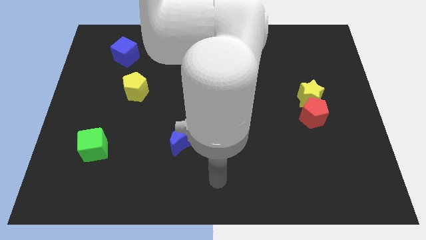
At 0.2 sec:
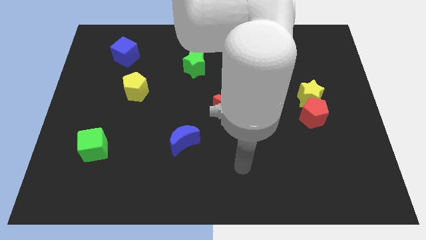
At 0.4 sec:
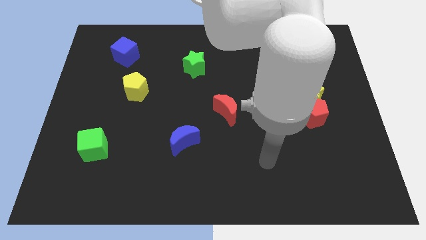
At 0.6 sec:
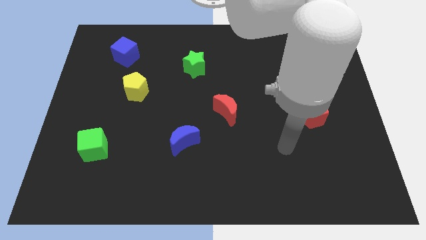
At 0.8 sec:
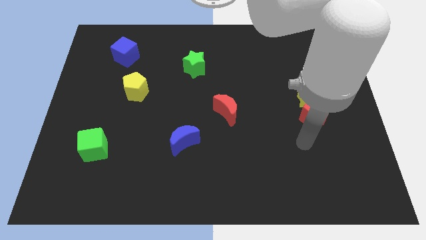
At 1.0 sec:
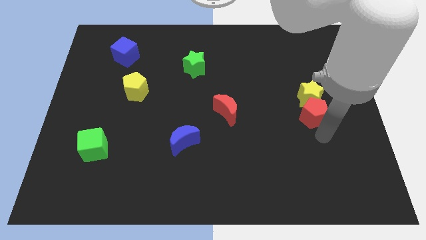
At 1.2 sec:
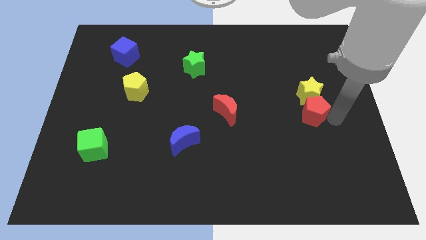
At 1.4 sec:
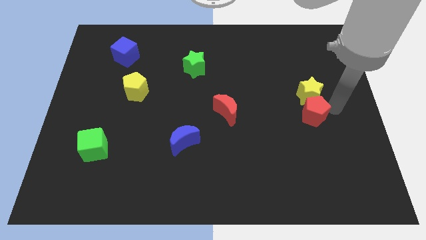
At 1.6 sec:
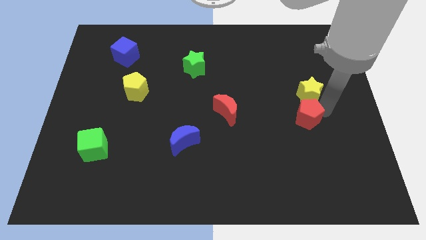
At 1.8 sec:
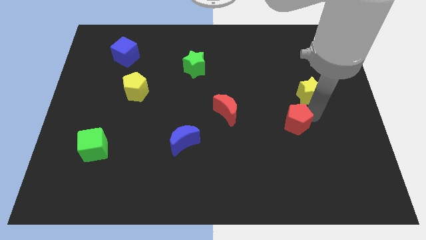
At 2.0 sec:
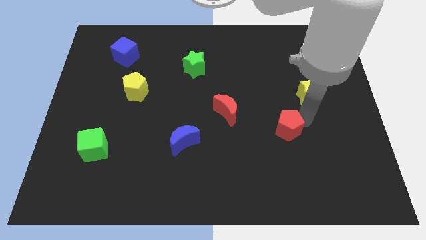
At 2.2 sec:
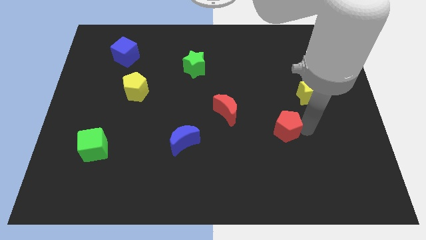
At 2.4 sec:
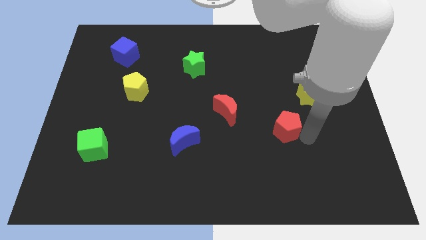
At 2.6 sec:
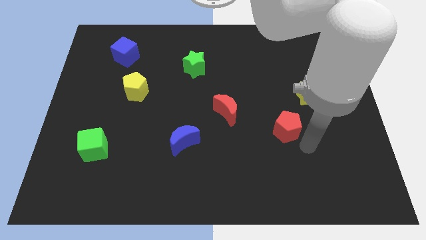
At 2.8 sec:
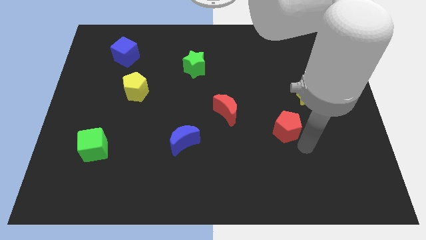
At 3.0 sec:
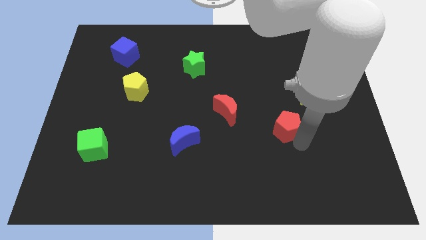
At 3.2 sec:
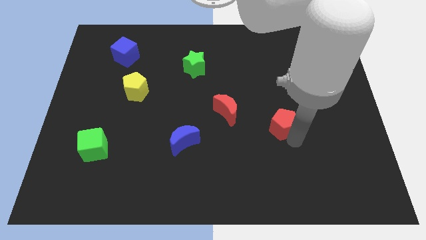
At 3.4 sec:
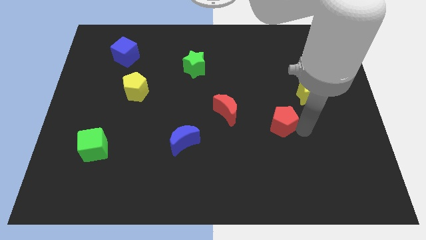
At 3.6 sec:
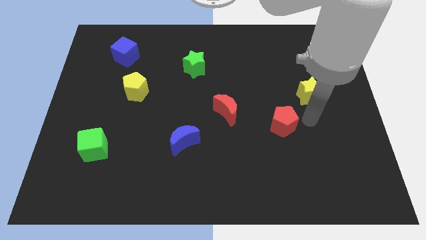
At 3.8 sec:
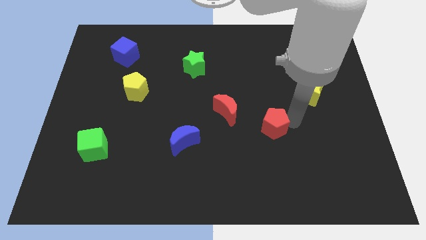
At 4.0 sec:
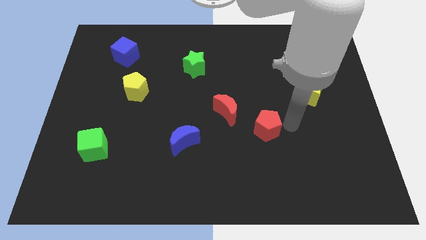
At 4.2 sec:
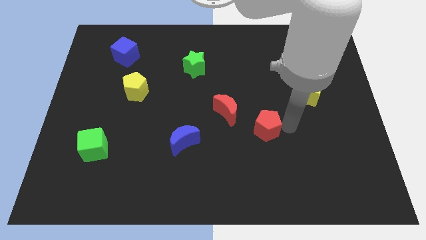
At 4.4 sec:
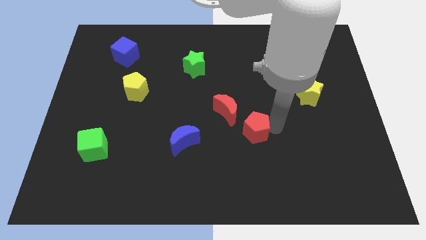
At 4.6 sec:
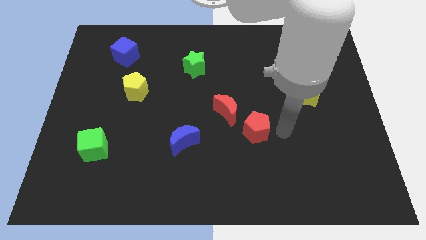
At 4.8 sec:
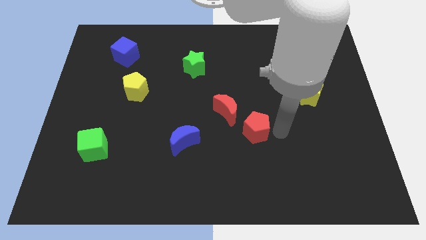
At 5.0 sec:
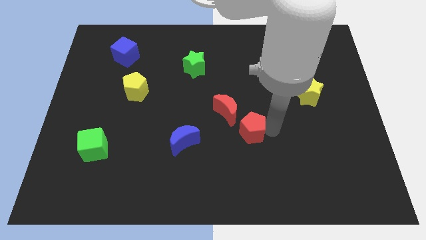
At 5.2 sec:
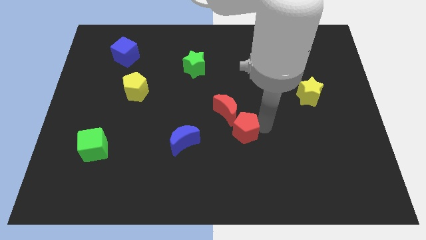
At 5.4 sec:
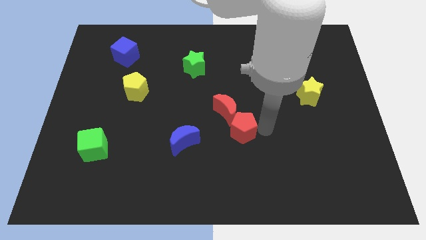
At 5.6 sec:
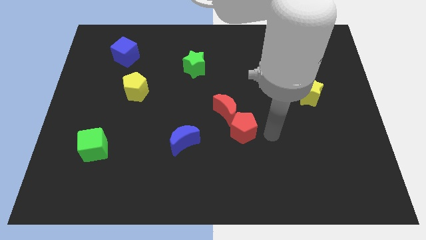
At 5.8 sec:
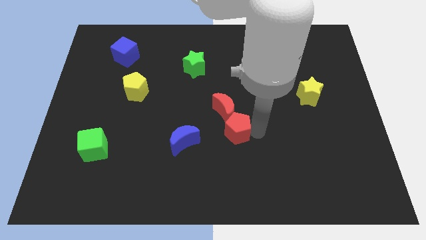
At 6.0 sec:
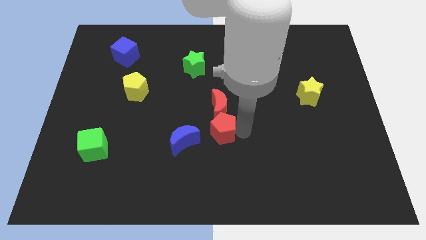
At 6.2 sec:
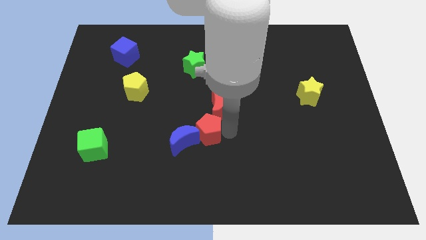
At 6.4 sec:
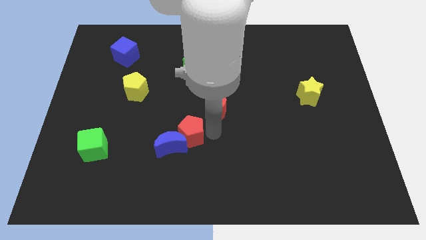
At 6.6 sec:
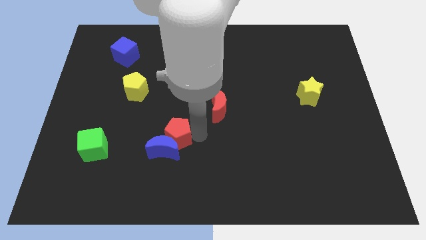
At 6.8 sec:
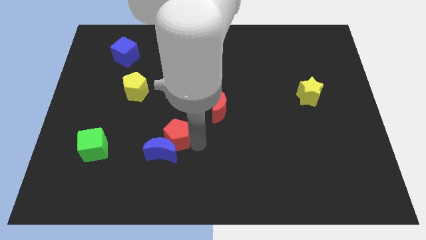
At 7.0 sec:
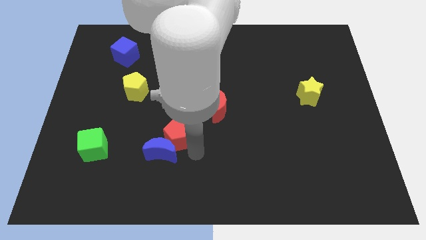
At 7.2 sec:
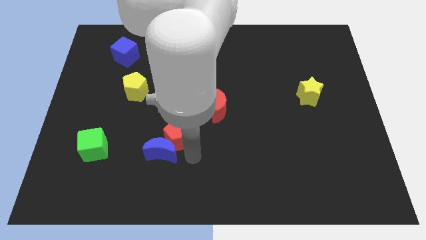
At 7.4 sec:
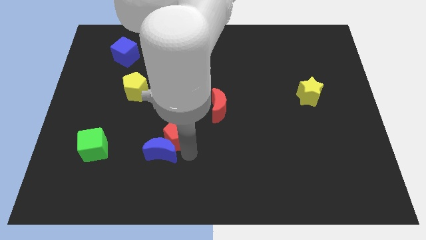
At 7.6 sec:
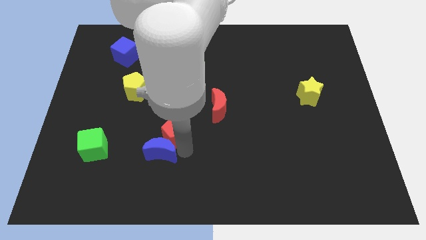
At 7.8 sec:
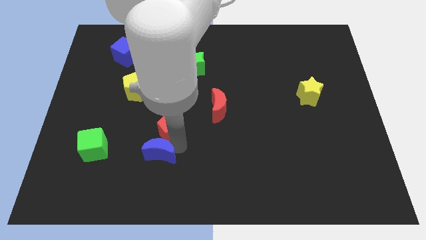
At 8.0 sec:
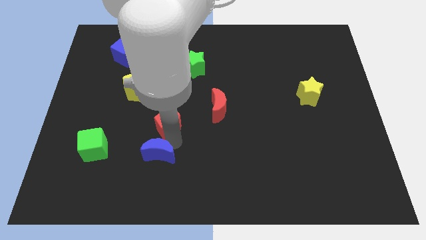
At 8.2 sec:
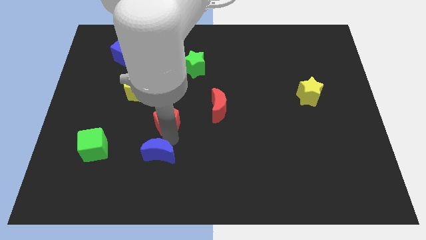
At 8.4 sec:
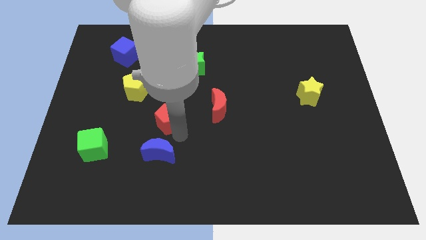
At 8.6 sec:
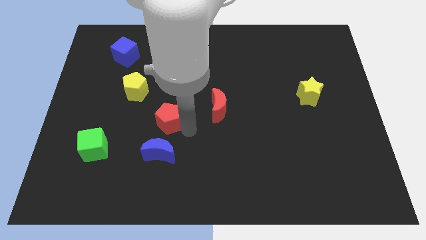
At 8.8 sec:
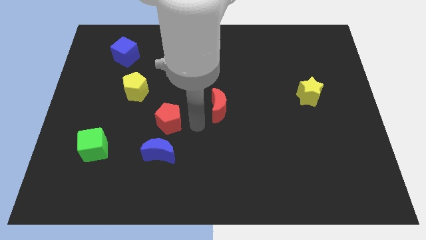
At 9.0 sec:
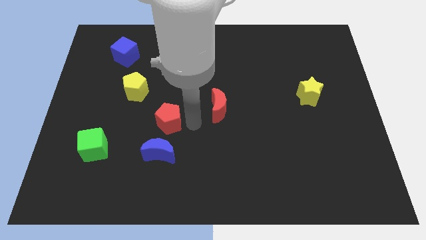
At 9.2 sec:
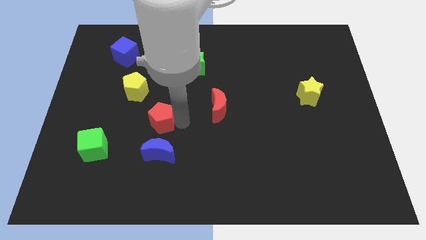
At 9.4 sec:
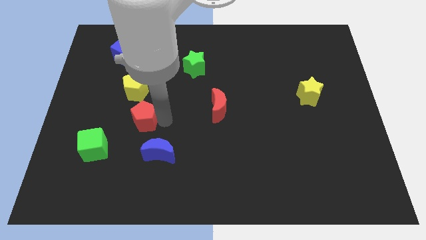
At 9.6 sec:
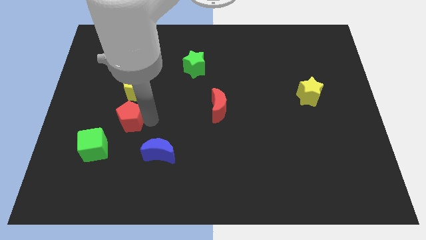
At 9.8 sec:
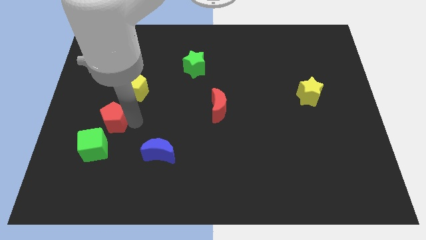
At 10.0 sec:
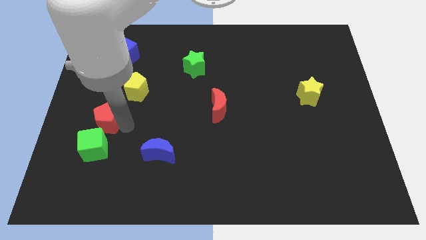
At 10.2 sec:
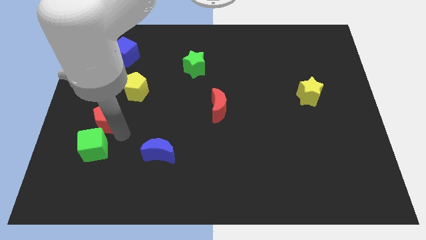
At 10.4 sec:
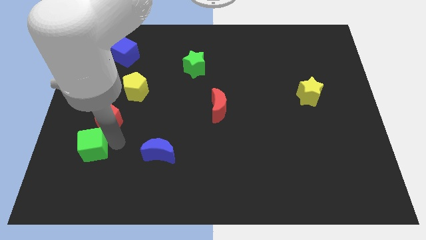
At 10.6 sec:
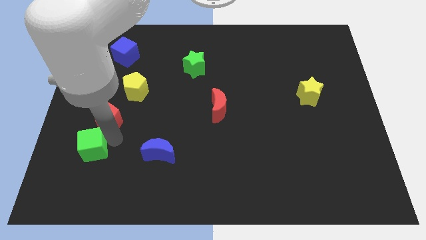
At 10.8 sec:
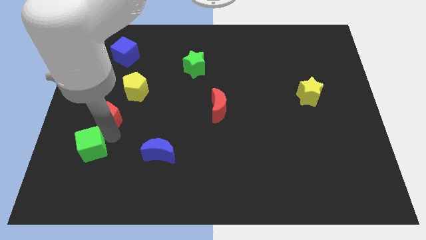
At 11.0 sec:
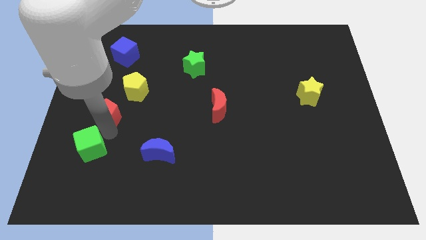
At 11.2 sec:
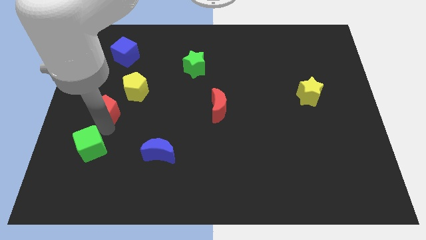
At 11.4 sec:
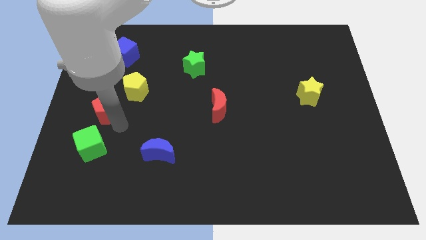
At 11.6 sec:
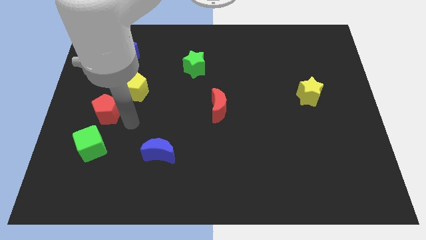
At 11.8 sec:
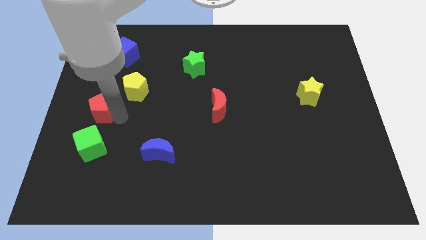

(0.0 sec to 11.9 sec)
slide the red pentagon to the left side of the board
